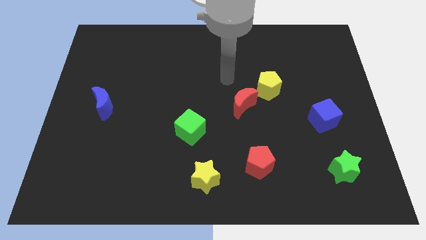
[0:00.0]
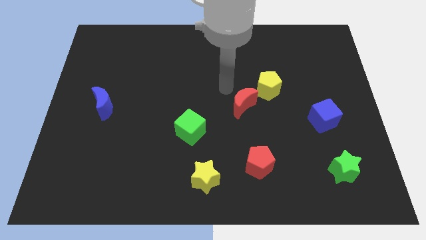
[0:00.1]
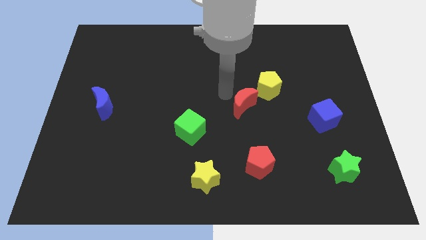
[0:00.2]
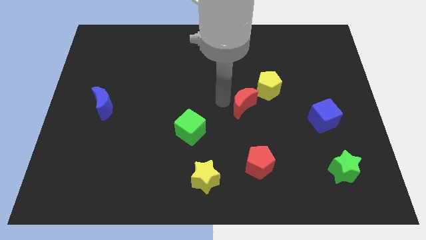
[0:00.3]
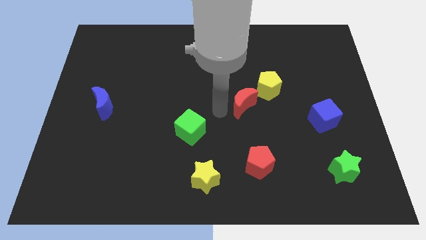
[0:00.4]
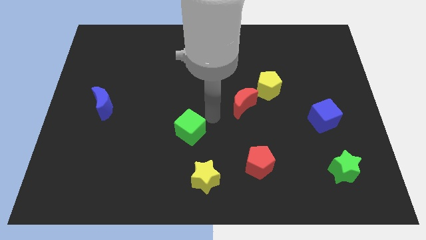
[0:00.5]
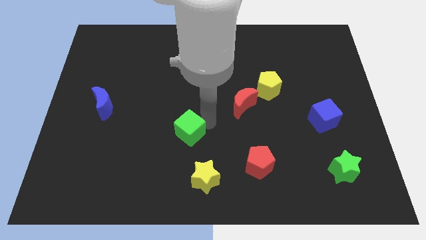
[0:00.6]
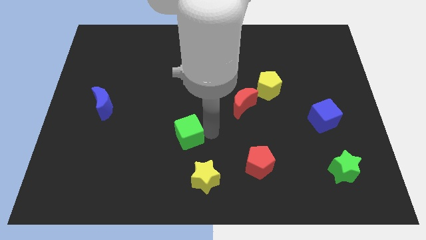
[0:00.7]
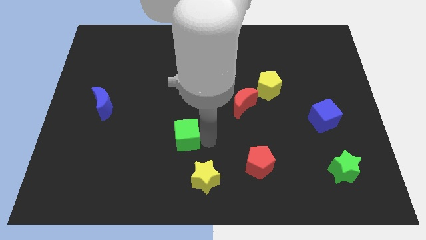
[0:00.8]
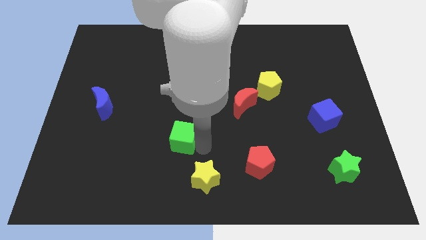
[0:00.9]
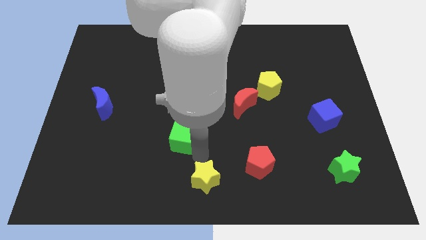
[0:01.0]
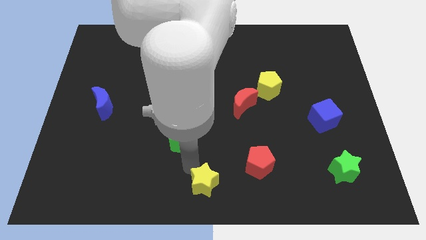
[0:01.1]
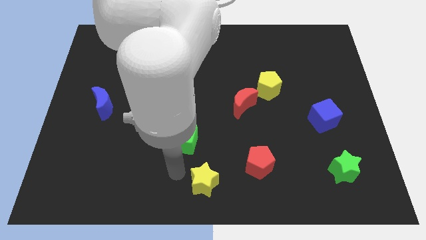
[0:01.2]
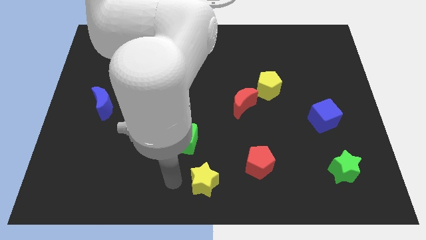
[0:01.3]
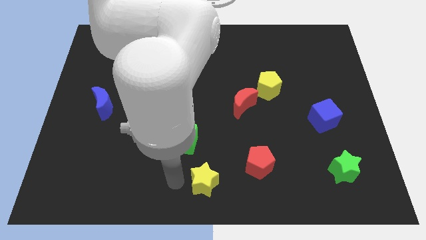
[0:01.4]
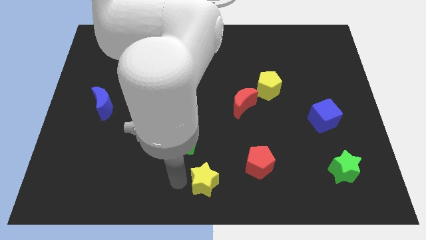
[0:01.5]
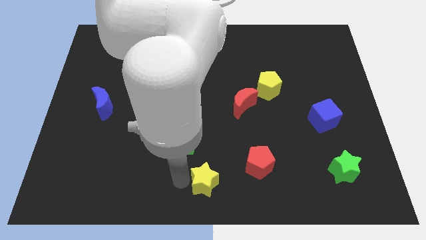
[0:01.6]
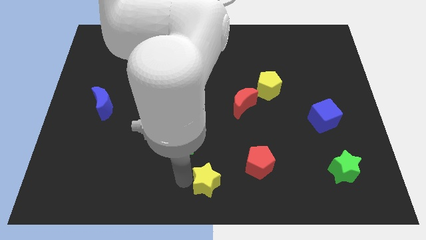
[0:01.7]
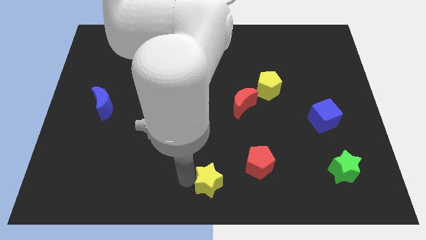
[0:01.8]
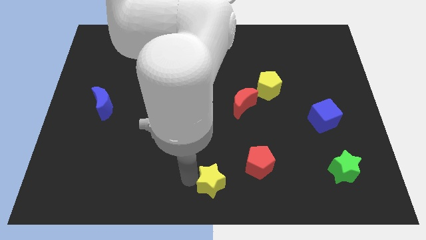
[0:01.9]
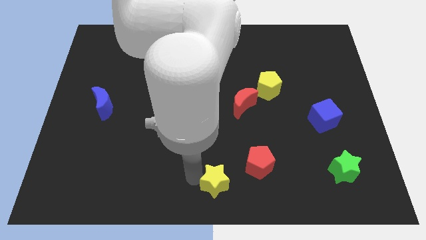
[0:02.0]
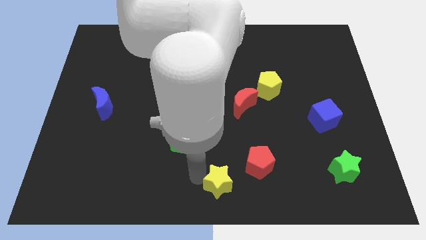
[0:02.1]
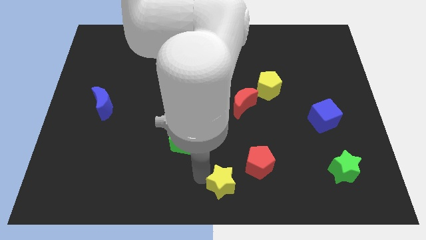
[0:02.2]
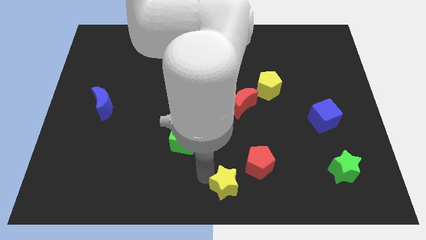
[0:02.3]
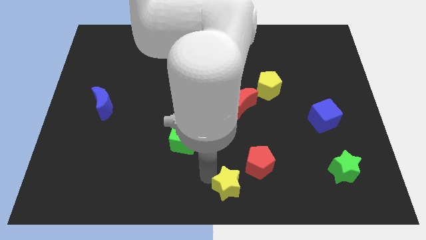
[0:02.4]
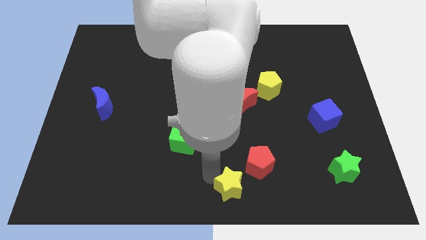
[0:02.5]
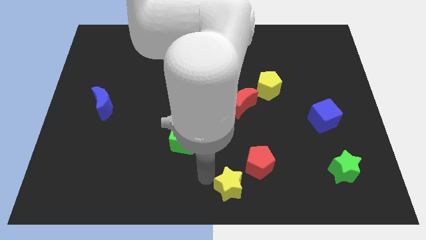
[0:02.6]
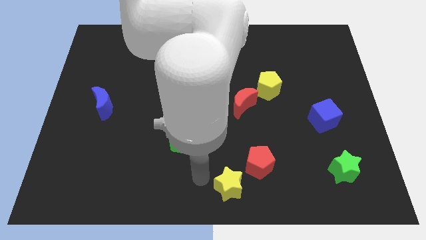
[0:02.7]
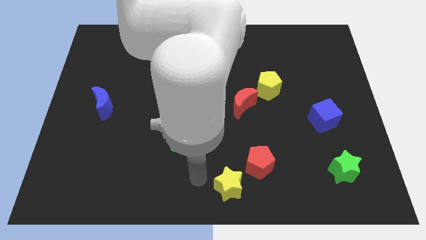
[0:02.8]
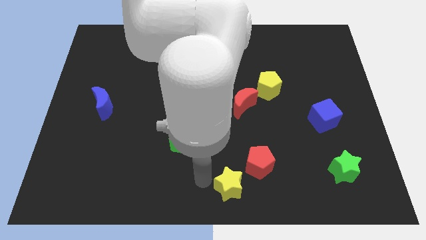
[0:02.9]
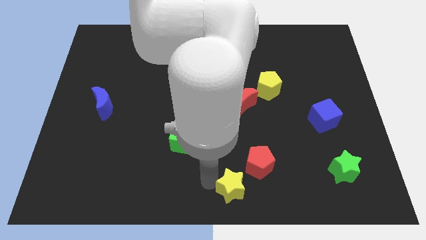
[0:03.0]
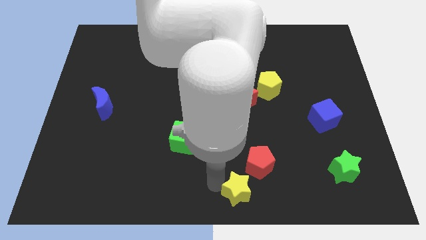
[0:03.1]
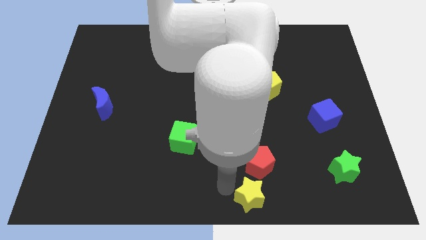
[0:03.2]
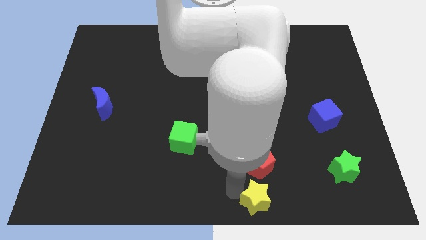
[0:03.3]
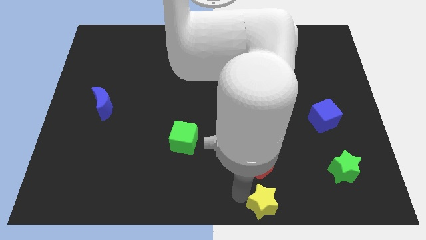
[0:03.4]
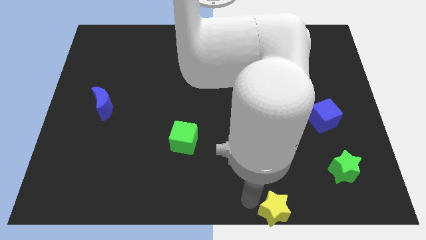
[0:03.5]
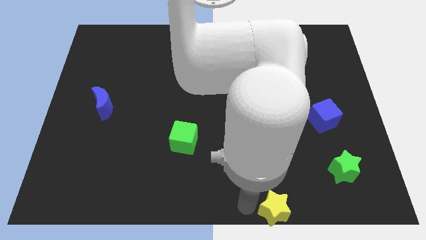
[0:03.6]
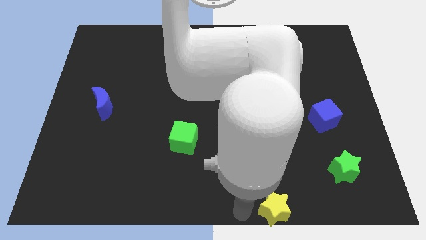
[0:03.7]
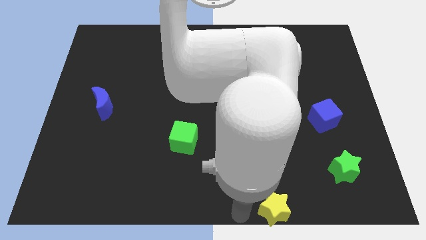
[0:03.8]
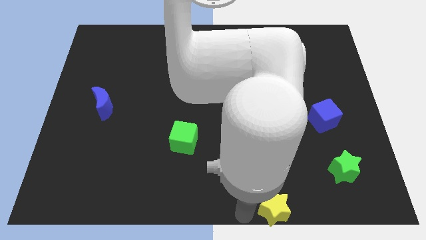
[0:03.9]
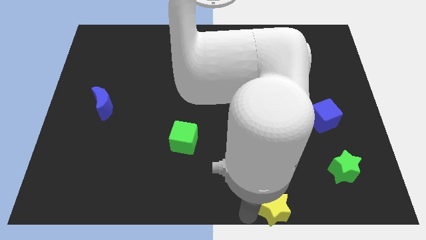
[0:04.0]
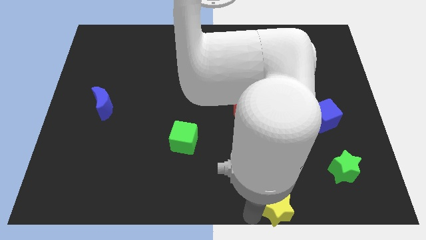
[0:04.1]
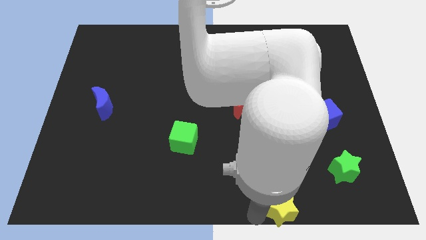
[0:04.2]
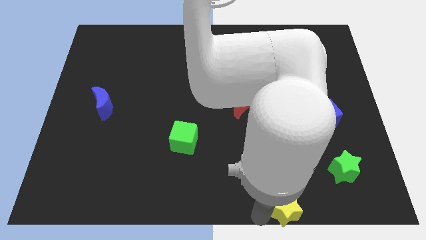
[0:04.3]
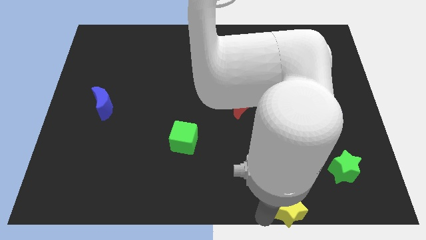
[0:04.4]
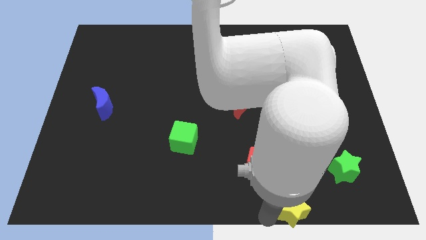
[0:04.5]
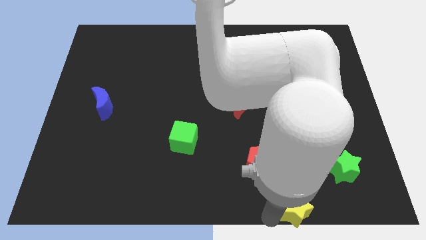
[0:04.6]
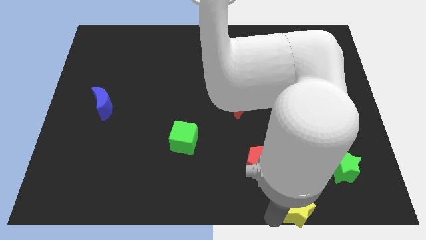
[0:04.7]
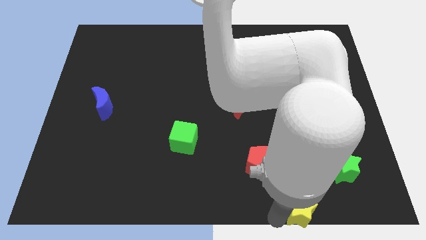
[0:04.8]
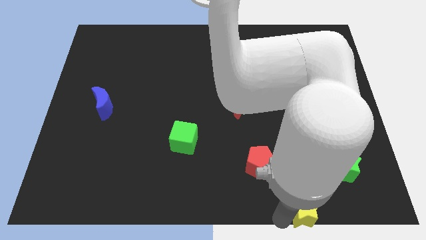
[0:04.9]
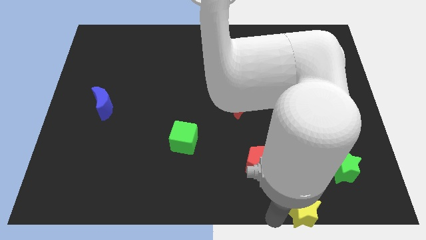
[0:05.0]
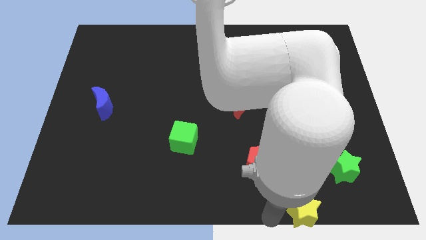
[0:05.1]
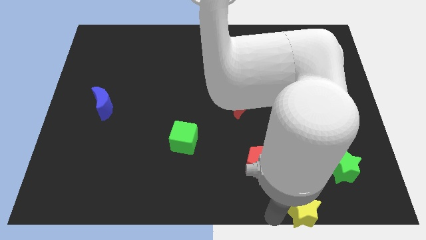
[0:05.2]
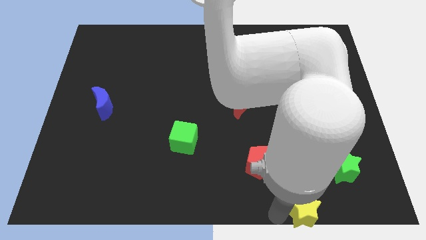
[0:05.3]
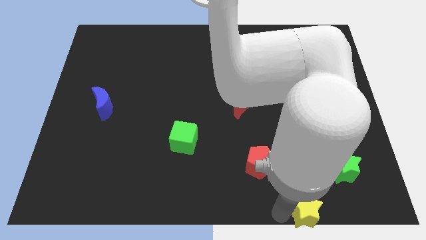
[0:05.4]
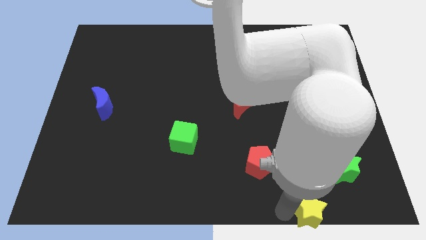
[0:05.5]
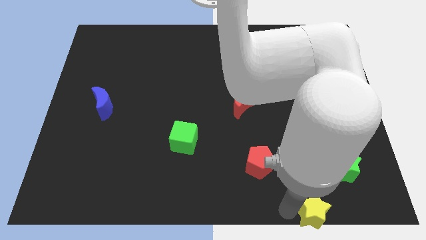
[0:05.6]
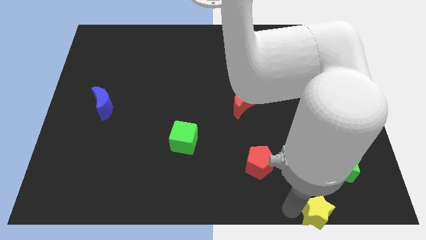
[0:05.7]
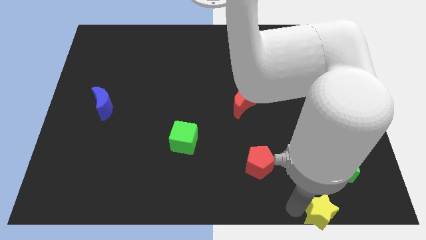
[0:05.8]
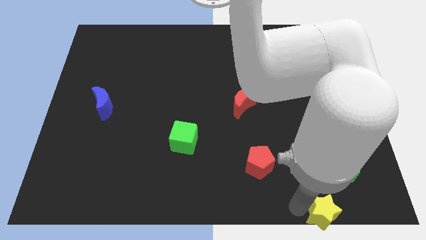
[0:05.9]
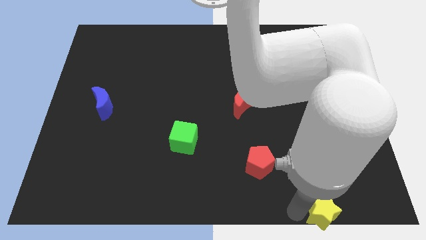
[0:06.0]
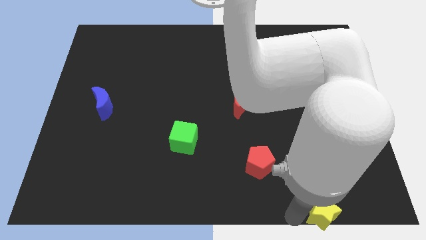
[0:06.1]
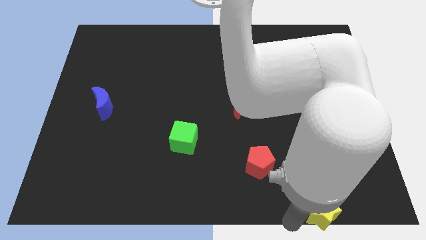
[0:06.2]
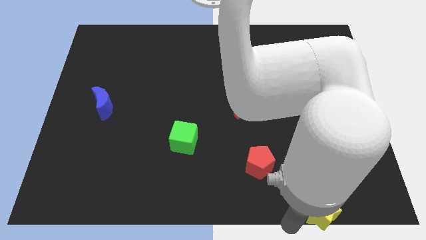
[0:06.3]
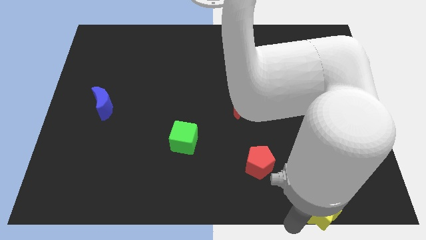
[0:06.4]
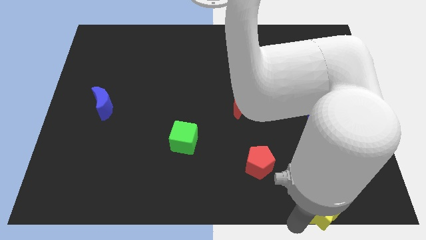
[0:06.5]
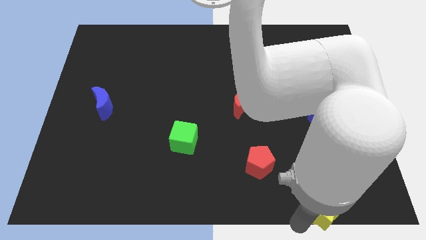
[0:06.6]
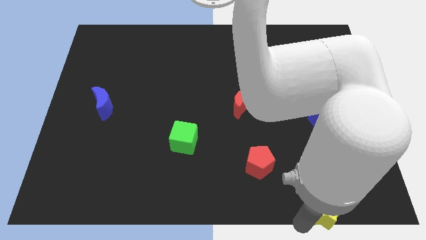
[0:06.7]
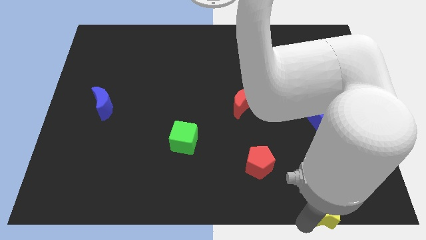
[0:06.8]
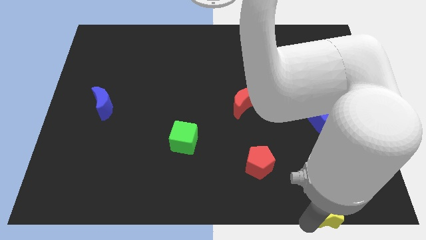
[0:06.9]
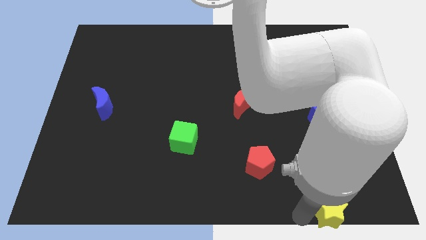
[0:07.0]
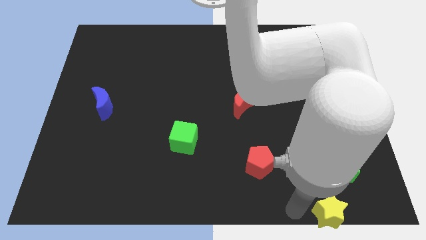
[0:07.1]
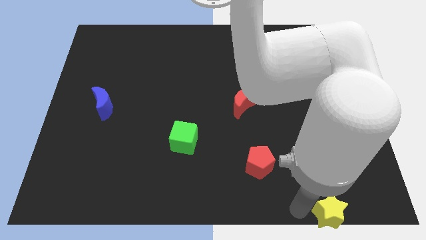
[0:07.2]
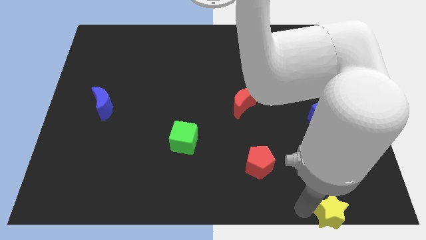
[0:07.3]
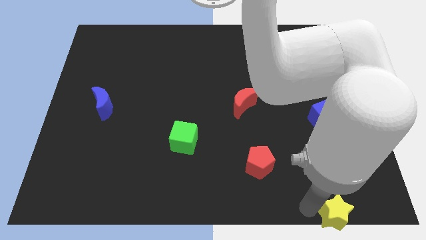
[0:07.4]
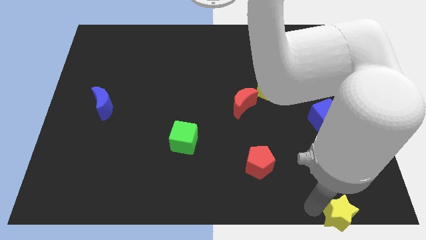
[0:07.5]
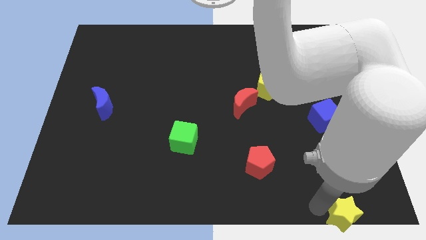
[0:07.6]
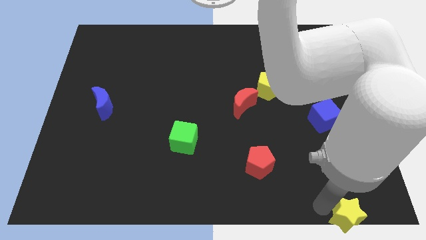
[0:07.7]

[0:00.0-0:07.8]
slide the yellow star to the bottom right corner
